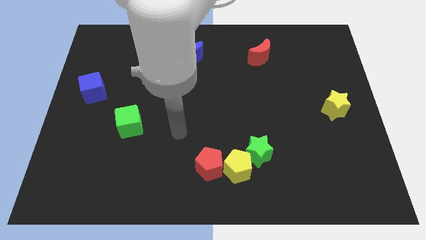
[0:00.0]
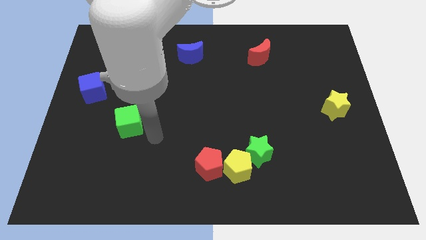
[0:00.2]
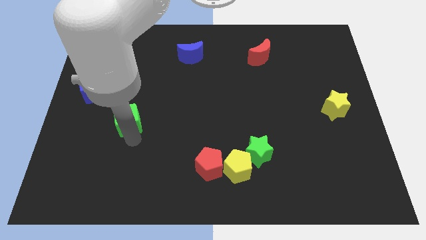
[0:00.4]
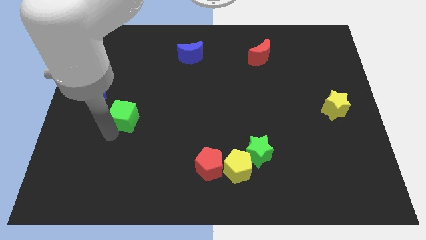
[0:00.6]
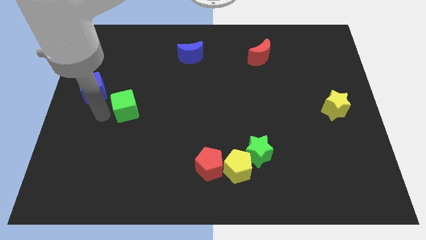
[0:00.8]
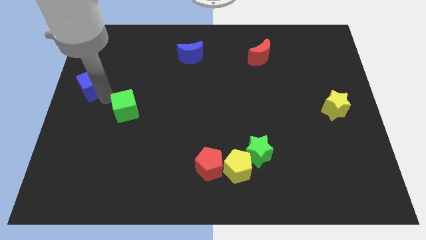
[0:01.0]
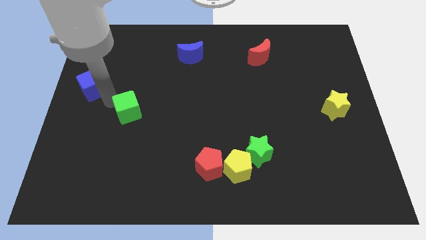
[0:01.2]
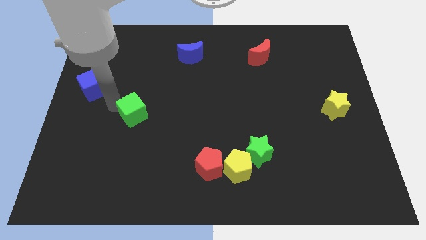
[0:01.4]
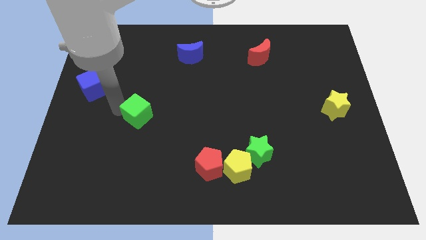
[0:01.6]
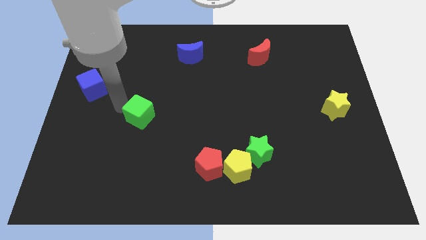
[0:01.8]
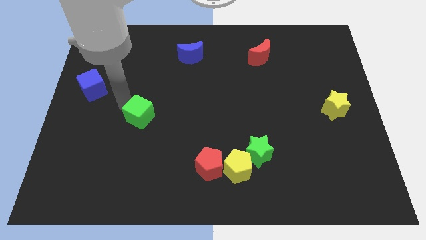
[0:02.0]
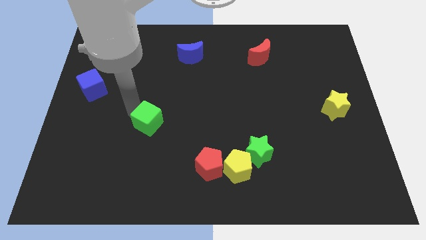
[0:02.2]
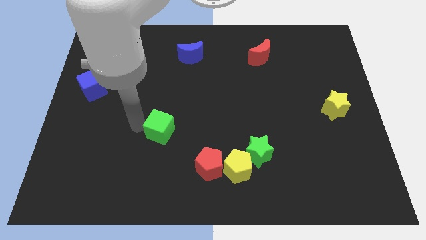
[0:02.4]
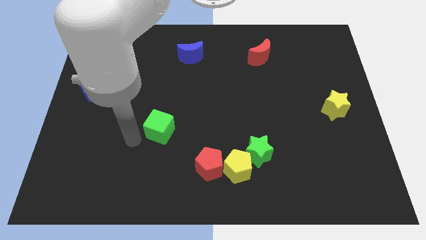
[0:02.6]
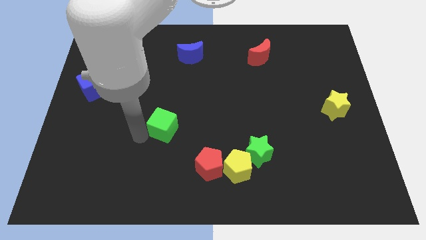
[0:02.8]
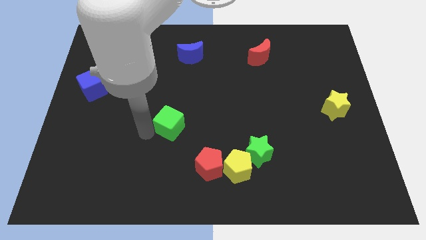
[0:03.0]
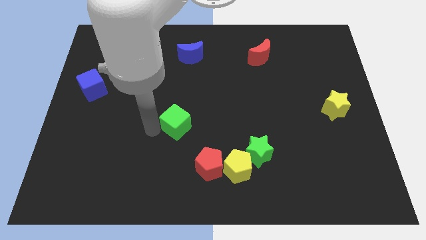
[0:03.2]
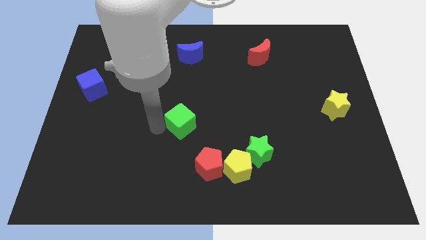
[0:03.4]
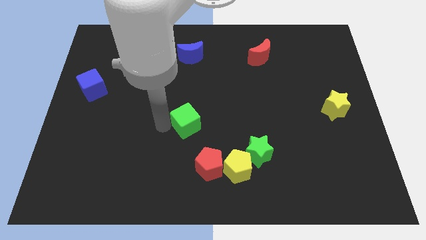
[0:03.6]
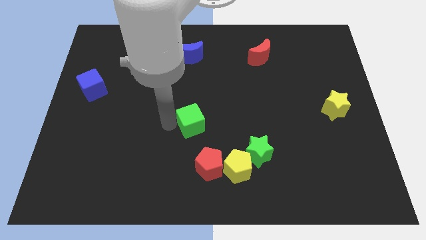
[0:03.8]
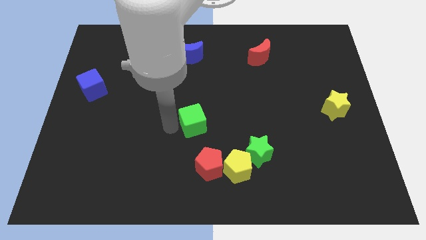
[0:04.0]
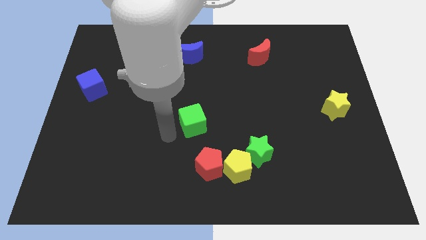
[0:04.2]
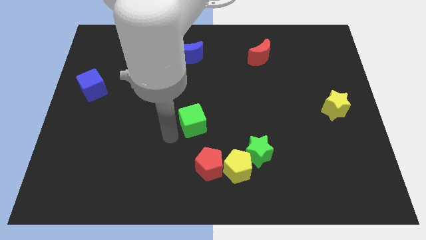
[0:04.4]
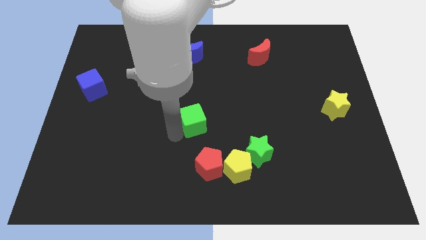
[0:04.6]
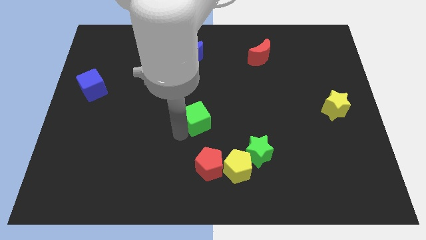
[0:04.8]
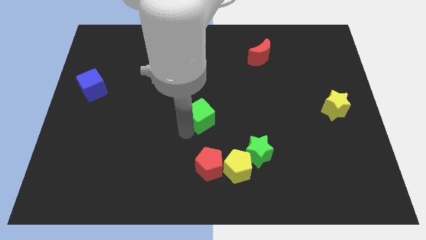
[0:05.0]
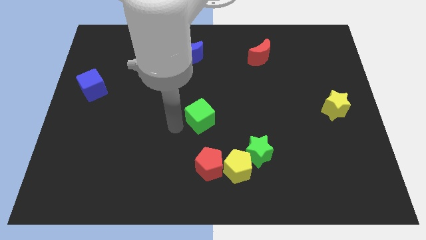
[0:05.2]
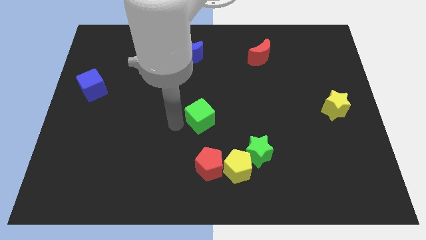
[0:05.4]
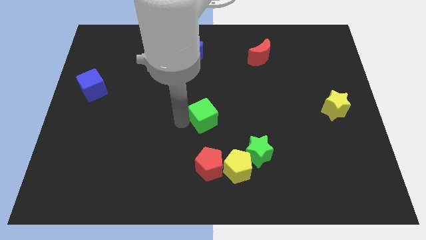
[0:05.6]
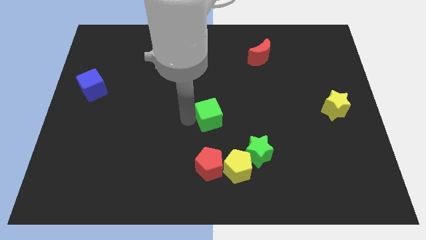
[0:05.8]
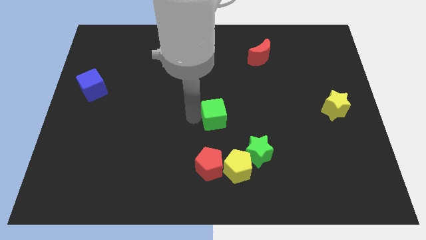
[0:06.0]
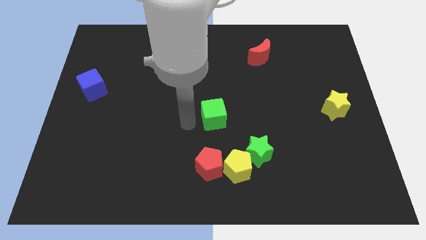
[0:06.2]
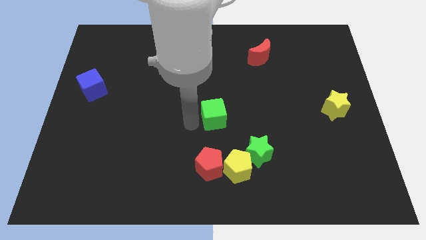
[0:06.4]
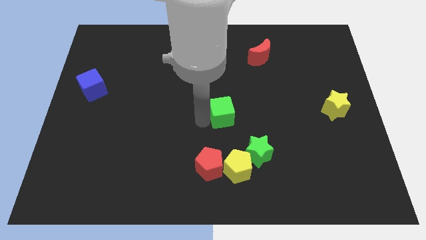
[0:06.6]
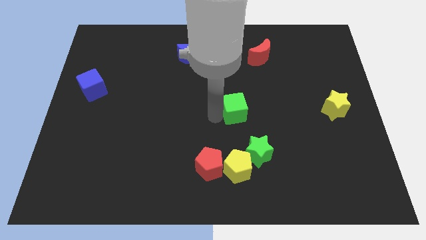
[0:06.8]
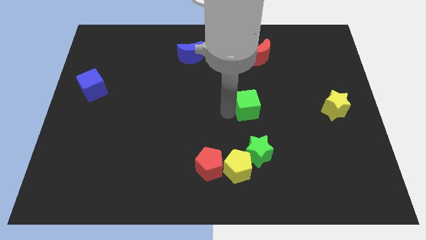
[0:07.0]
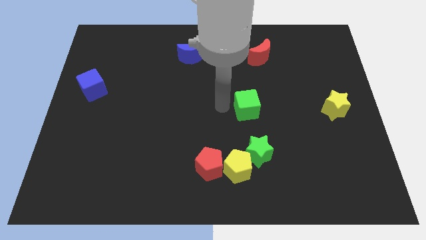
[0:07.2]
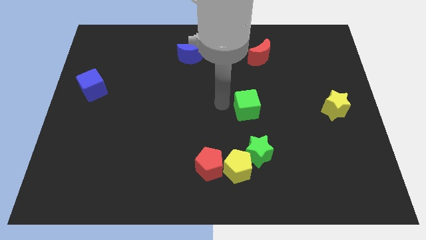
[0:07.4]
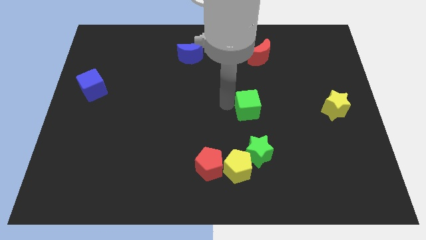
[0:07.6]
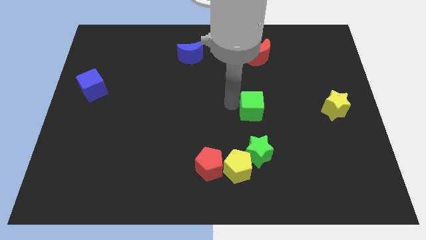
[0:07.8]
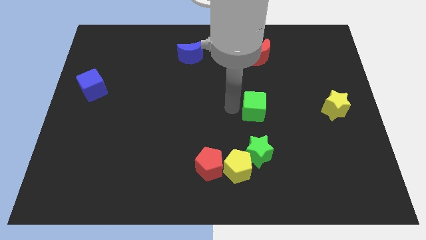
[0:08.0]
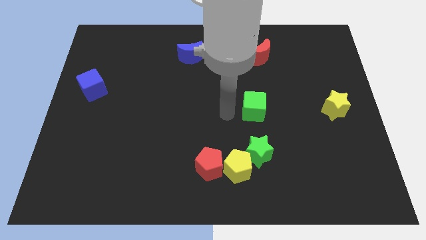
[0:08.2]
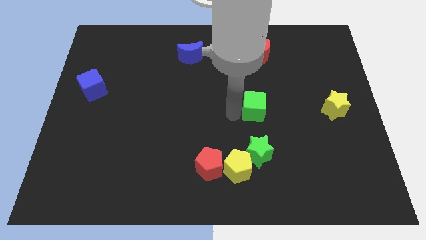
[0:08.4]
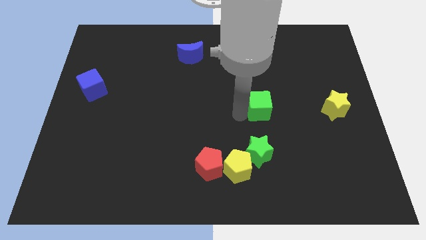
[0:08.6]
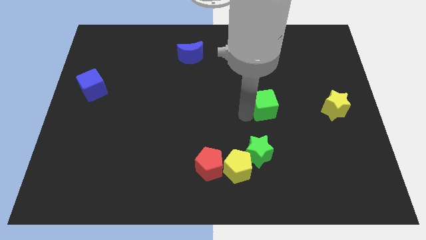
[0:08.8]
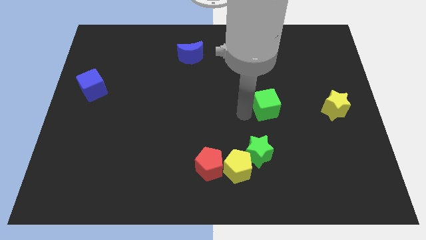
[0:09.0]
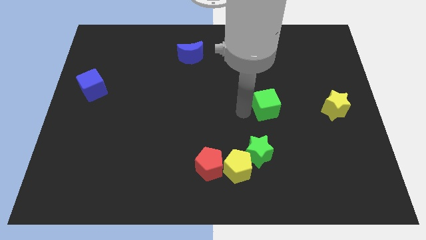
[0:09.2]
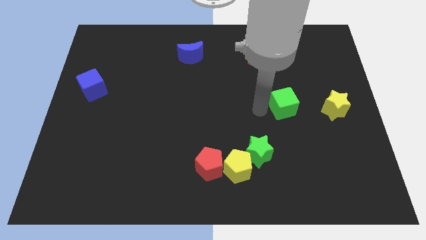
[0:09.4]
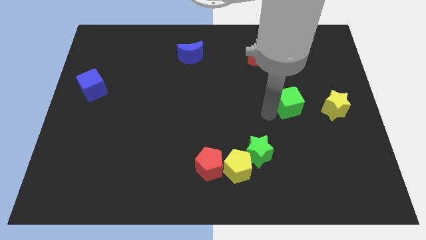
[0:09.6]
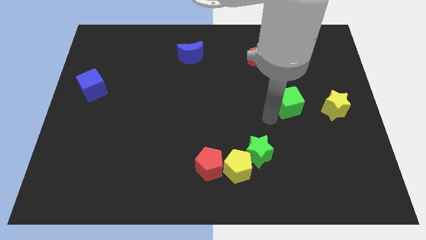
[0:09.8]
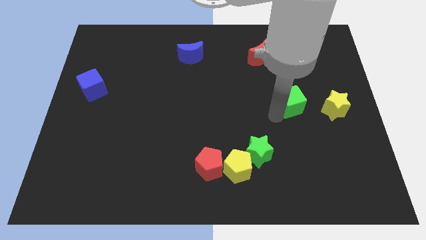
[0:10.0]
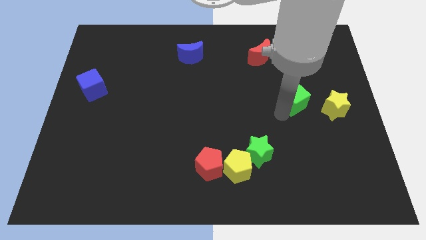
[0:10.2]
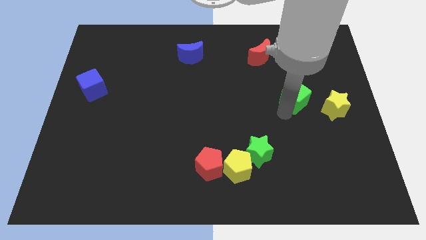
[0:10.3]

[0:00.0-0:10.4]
slide the green cube diagonally up and to the left of the yellow star

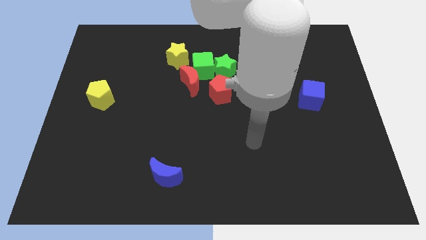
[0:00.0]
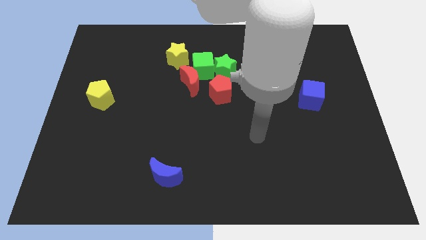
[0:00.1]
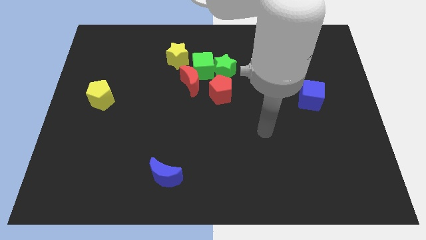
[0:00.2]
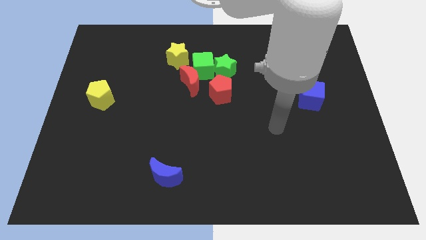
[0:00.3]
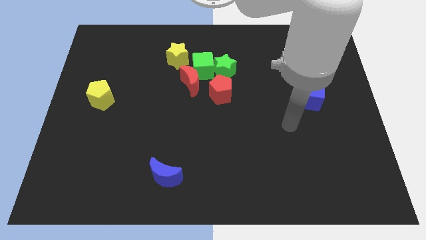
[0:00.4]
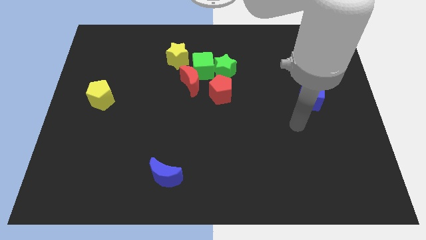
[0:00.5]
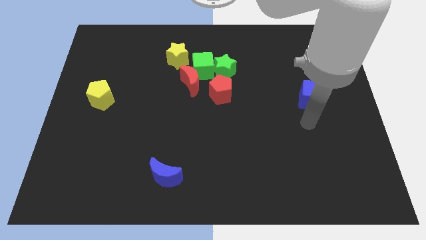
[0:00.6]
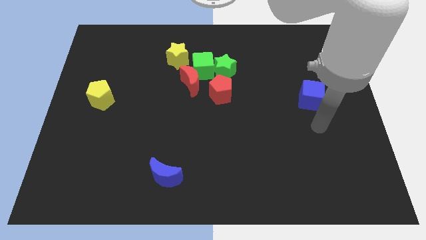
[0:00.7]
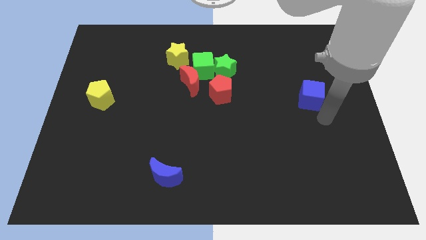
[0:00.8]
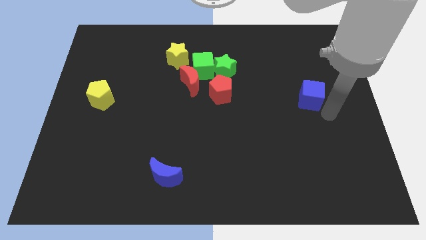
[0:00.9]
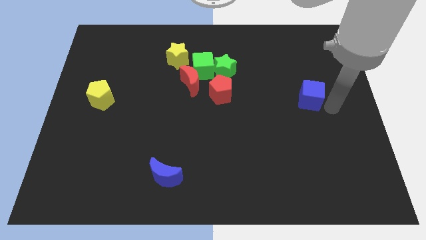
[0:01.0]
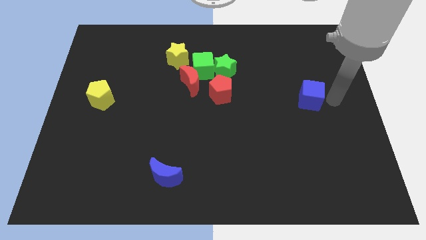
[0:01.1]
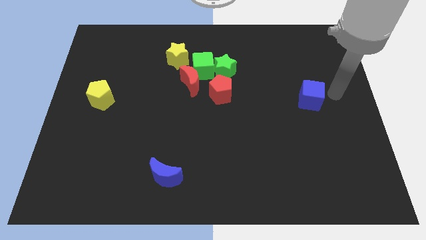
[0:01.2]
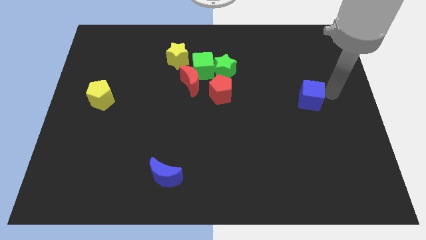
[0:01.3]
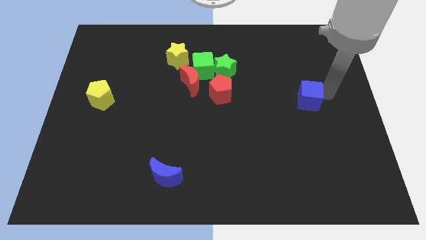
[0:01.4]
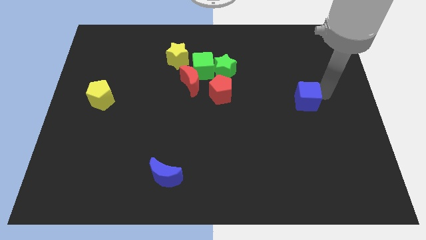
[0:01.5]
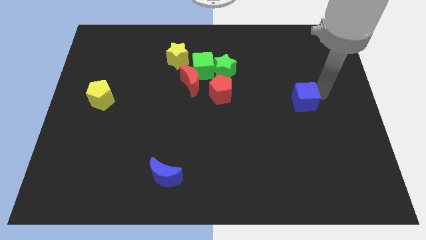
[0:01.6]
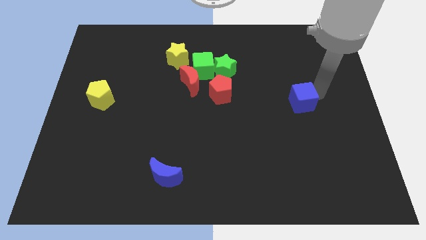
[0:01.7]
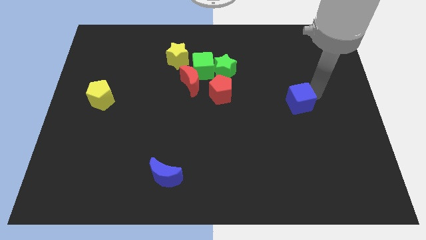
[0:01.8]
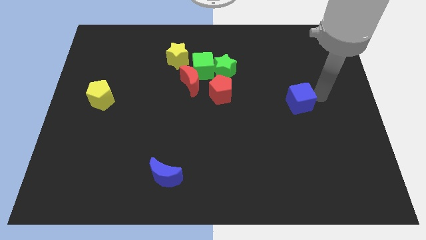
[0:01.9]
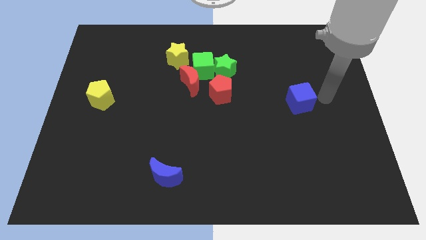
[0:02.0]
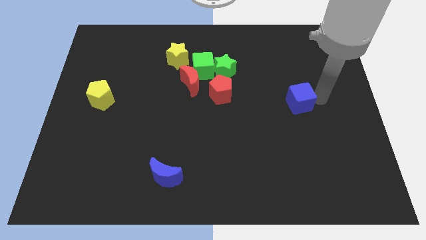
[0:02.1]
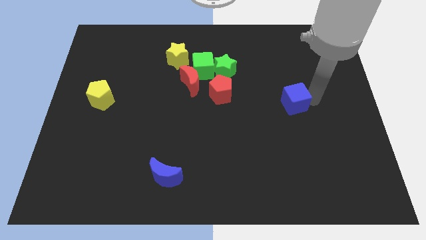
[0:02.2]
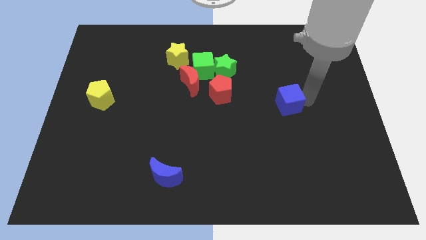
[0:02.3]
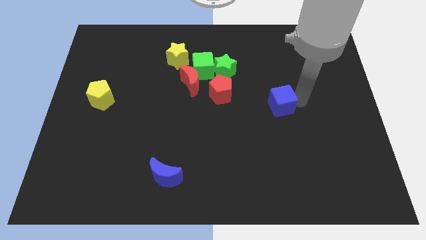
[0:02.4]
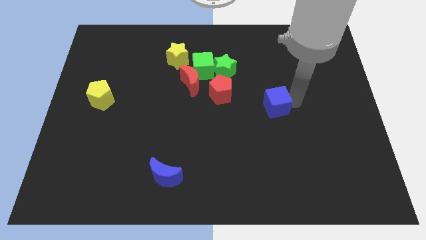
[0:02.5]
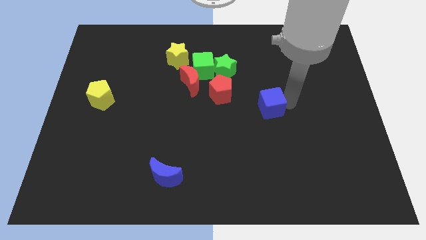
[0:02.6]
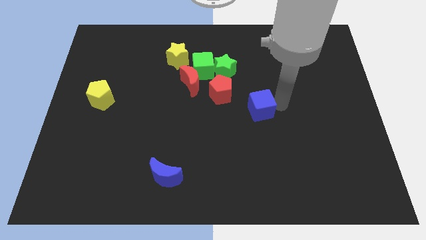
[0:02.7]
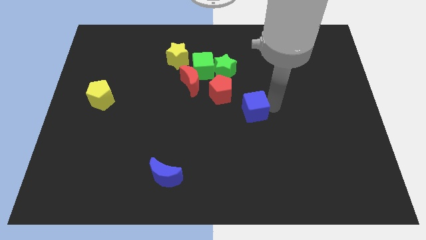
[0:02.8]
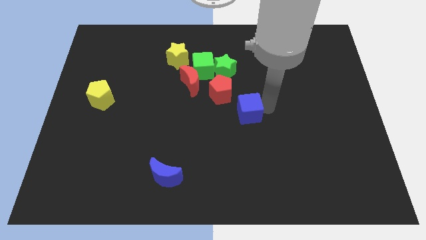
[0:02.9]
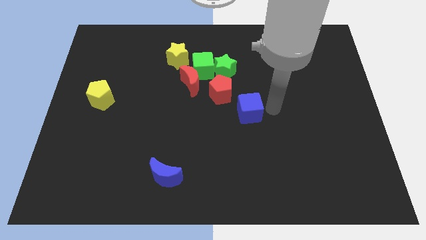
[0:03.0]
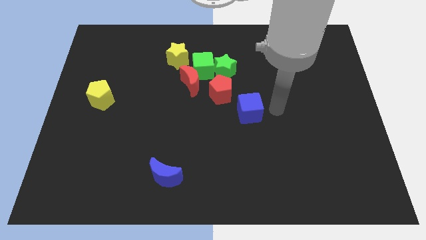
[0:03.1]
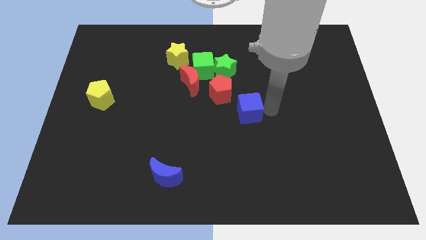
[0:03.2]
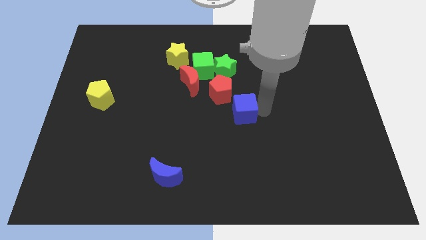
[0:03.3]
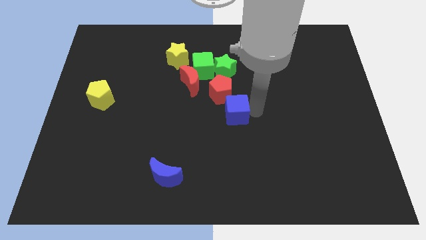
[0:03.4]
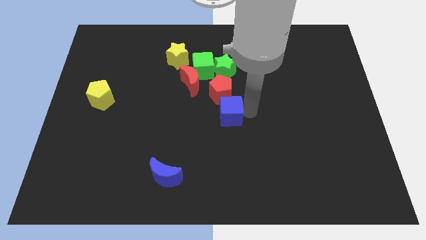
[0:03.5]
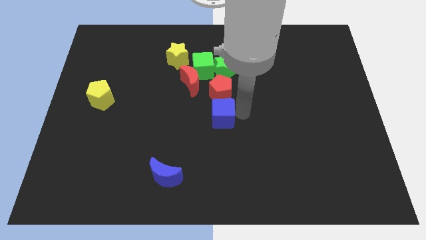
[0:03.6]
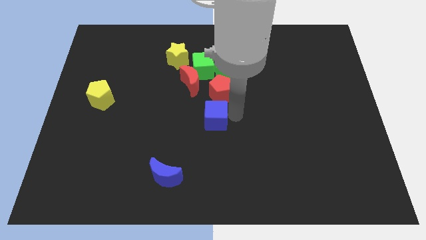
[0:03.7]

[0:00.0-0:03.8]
push the blue cube to the bottom left side of the red pentagon
